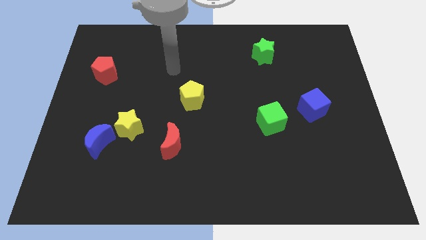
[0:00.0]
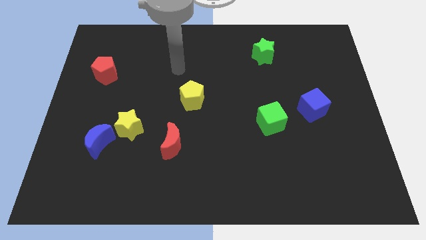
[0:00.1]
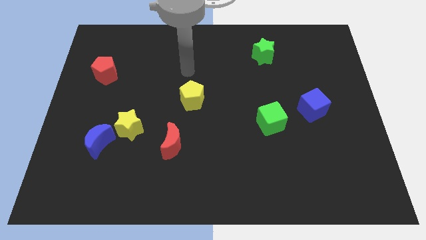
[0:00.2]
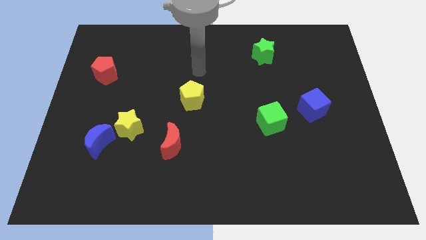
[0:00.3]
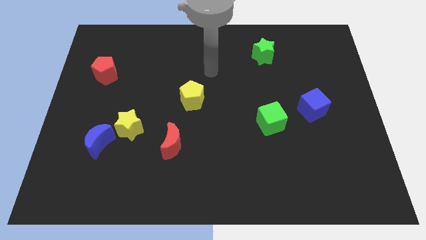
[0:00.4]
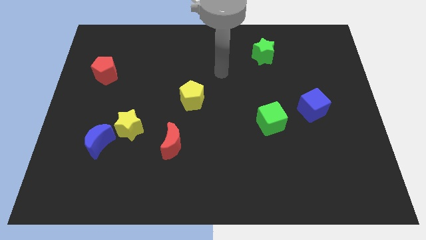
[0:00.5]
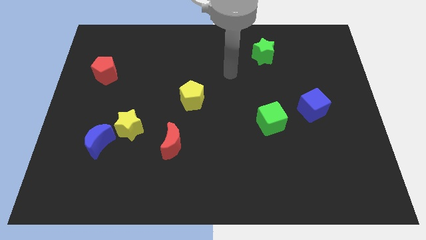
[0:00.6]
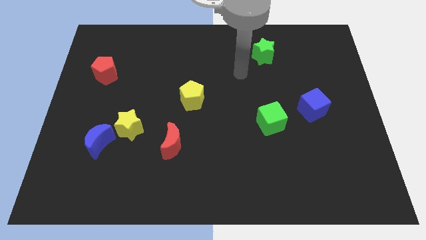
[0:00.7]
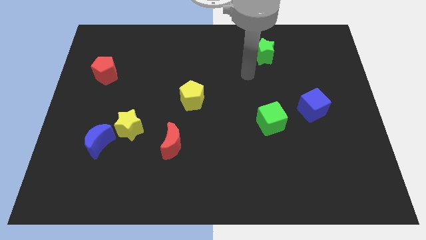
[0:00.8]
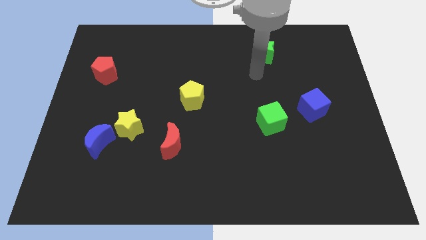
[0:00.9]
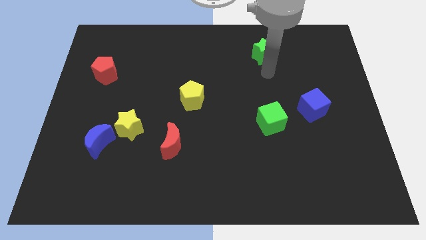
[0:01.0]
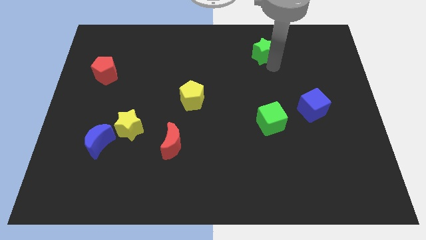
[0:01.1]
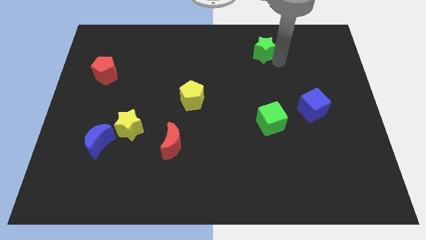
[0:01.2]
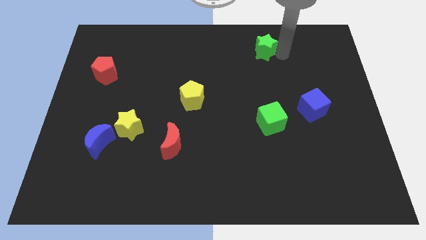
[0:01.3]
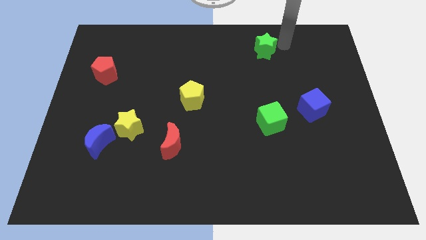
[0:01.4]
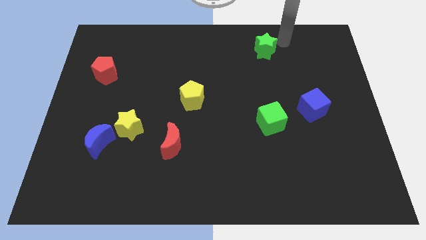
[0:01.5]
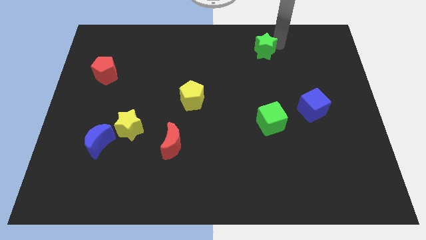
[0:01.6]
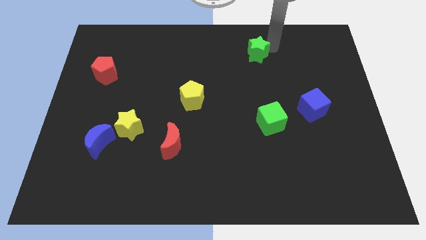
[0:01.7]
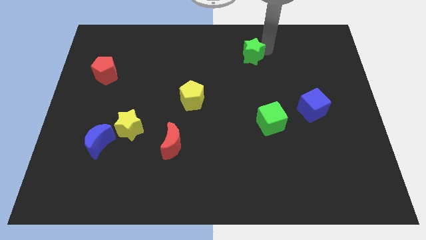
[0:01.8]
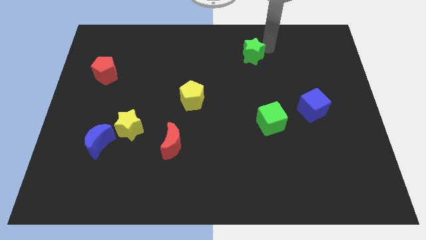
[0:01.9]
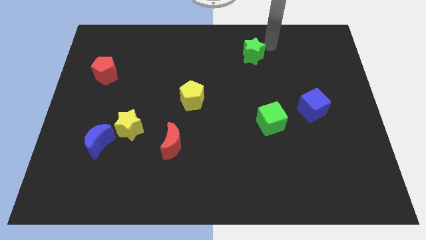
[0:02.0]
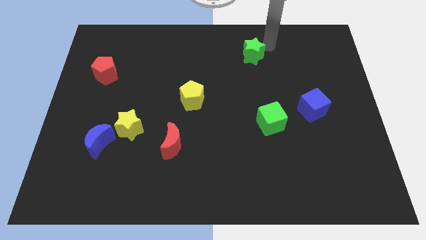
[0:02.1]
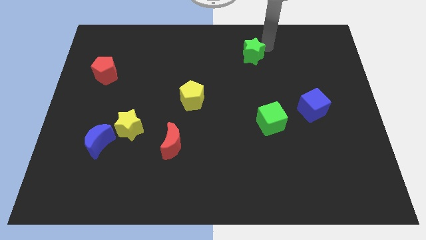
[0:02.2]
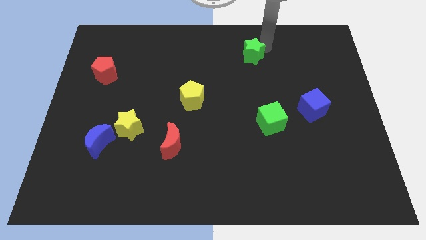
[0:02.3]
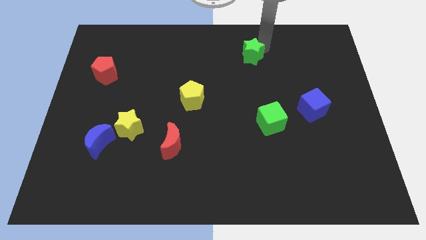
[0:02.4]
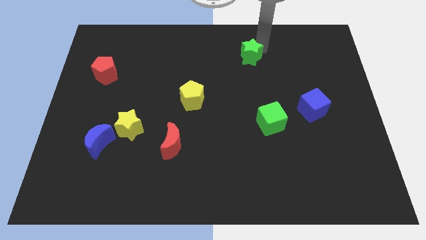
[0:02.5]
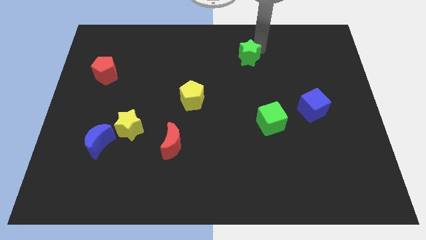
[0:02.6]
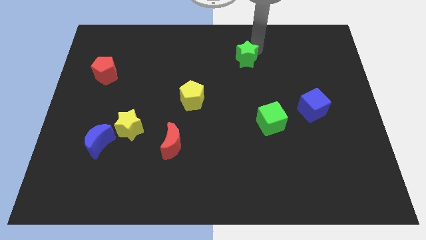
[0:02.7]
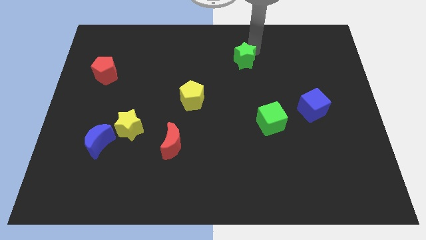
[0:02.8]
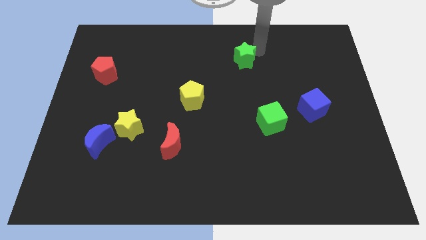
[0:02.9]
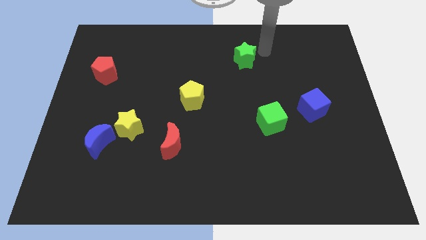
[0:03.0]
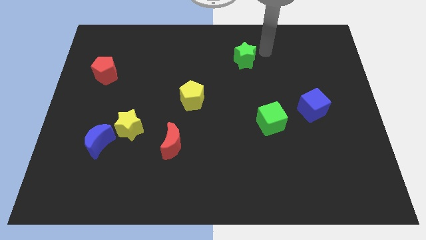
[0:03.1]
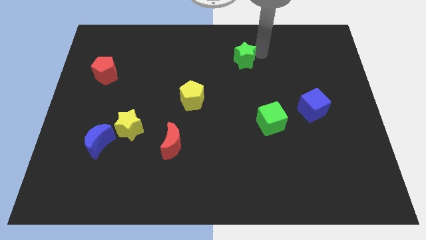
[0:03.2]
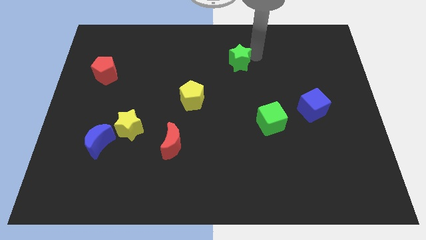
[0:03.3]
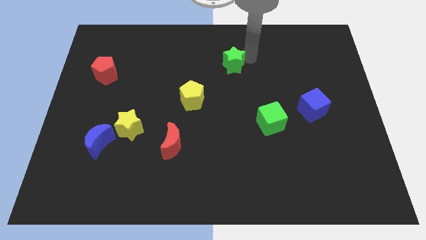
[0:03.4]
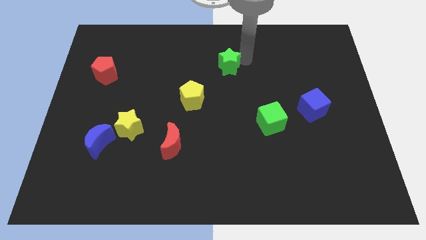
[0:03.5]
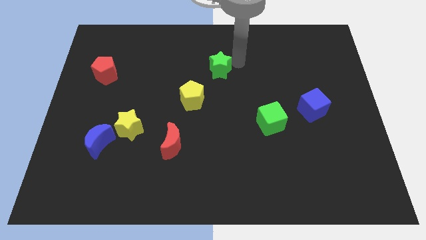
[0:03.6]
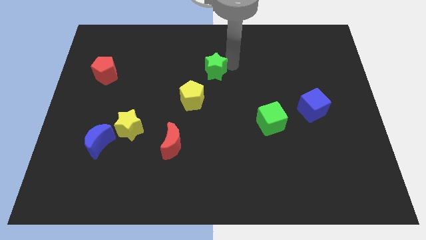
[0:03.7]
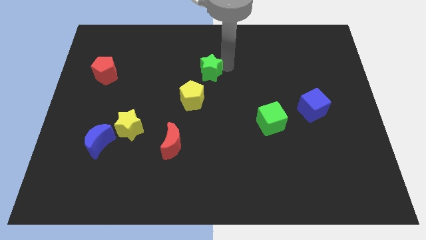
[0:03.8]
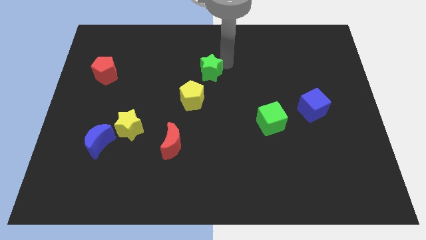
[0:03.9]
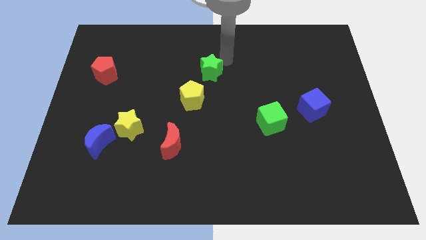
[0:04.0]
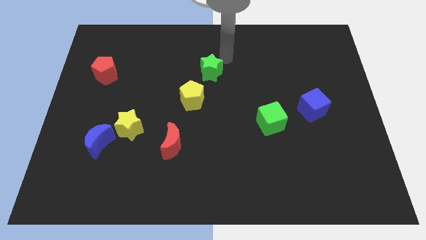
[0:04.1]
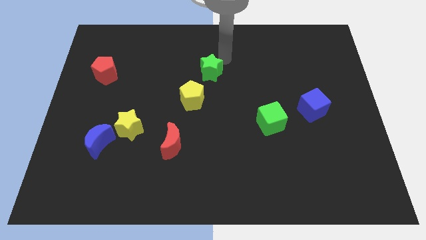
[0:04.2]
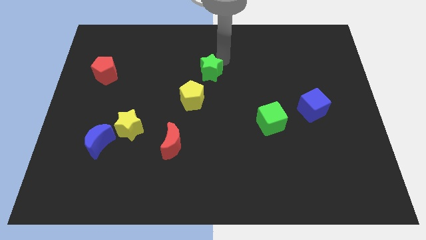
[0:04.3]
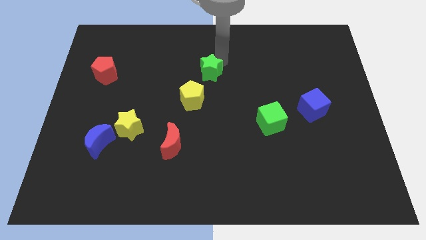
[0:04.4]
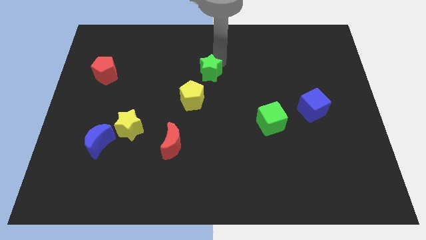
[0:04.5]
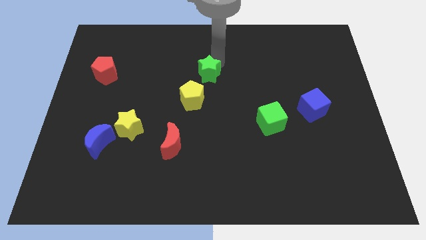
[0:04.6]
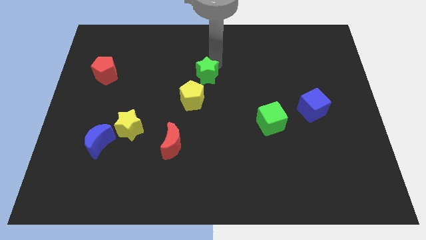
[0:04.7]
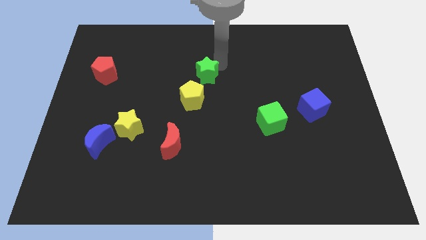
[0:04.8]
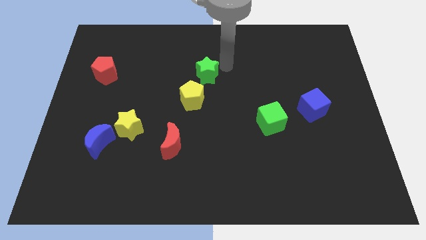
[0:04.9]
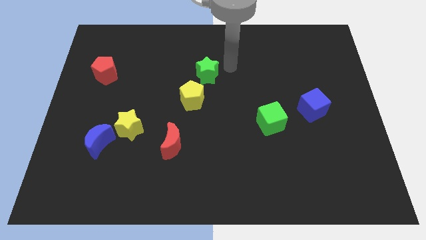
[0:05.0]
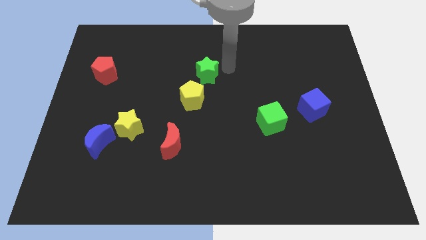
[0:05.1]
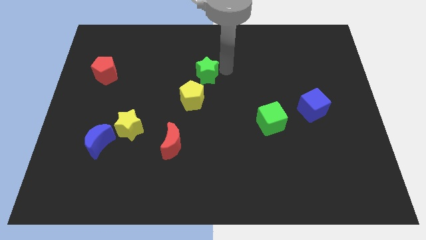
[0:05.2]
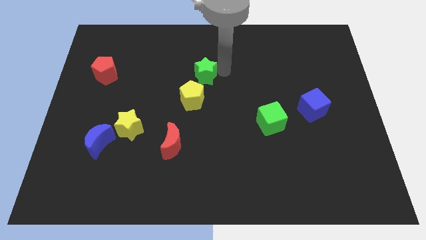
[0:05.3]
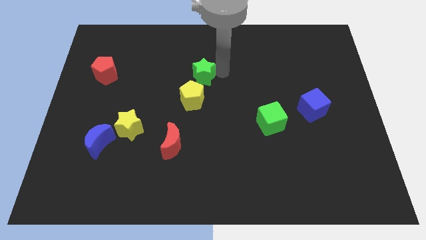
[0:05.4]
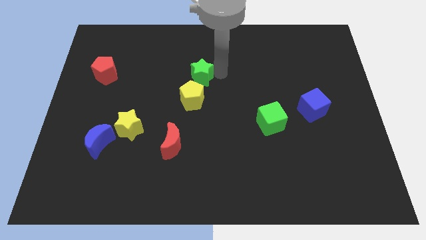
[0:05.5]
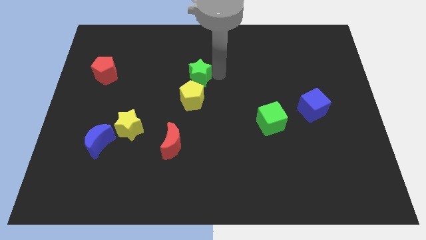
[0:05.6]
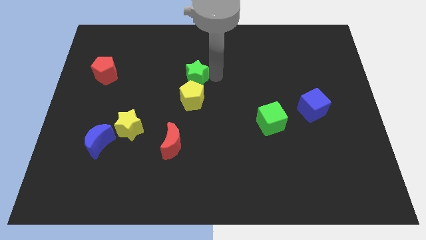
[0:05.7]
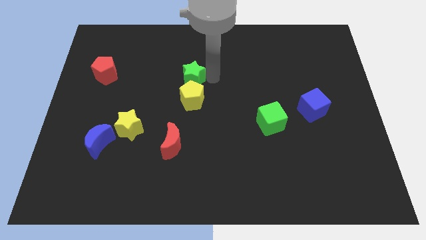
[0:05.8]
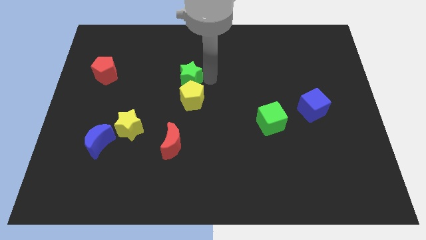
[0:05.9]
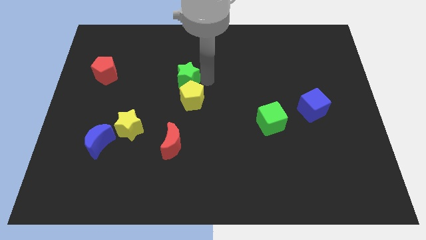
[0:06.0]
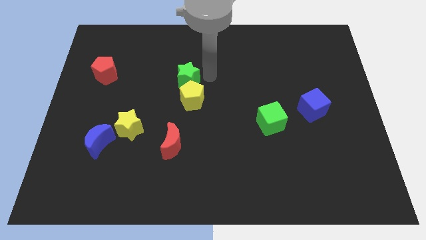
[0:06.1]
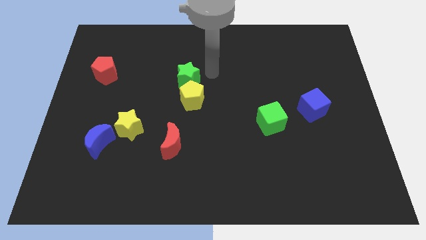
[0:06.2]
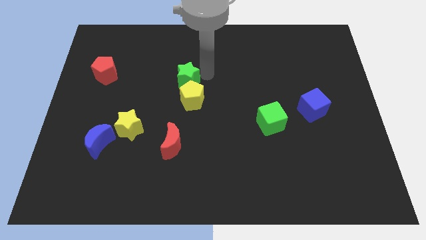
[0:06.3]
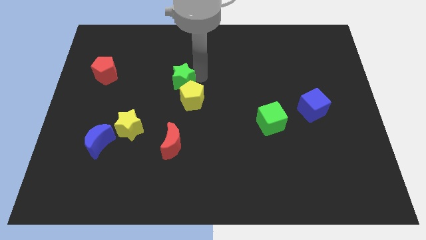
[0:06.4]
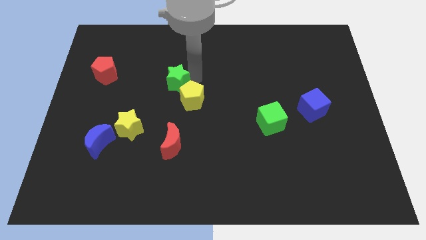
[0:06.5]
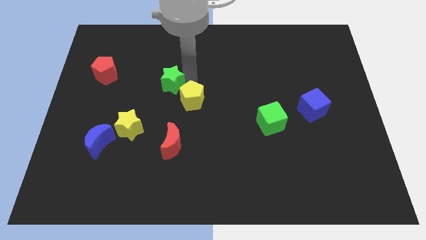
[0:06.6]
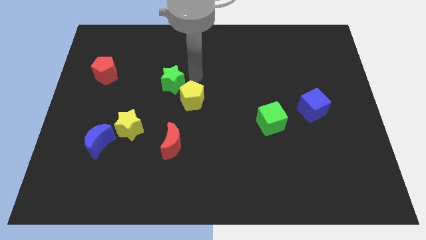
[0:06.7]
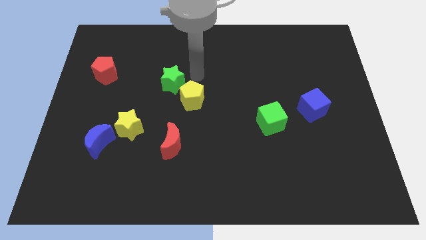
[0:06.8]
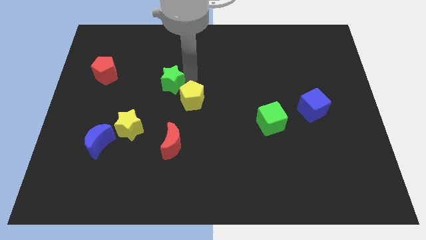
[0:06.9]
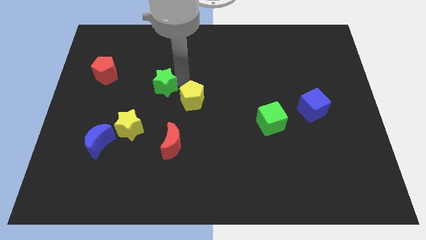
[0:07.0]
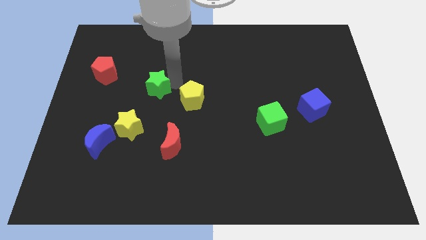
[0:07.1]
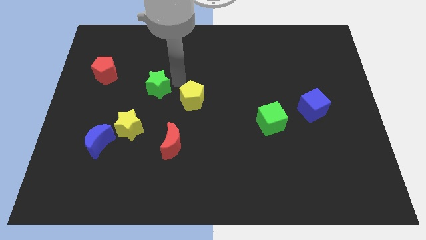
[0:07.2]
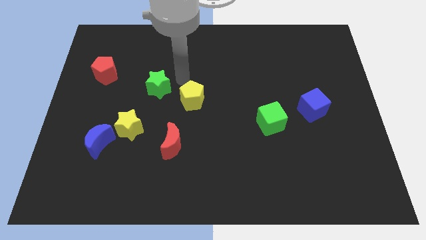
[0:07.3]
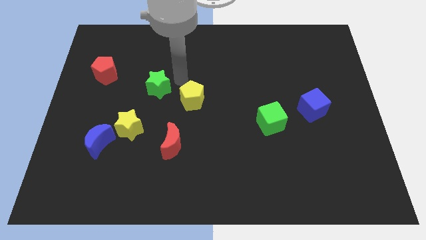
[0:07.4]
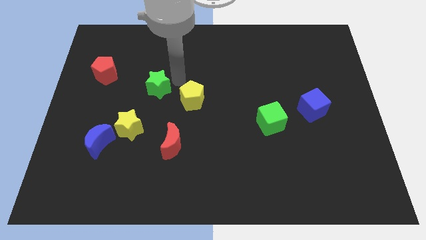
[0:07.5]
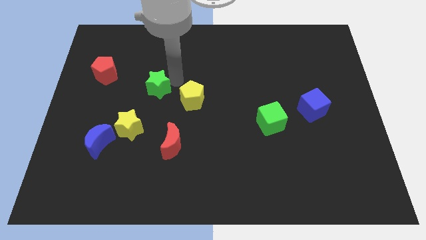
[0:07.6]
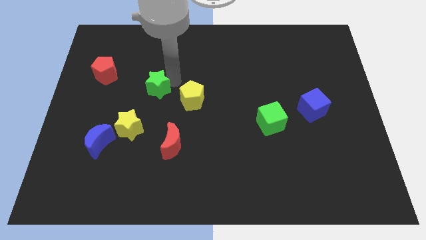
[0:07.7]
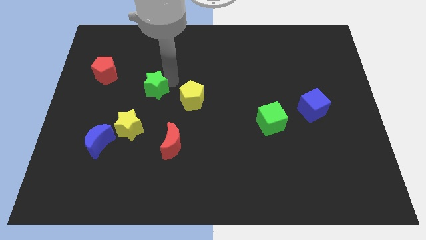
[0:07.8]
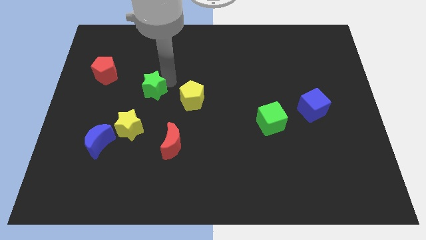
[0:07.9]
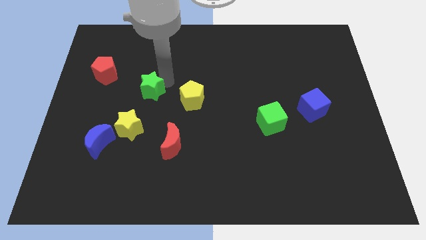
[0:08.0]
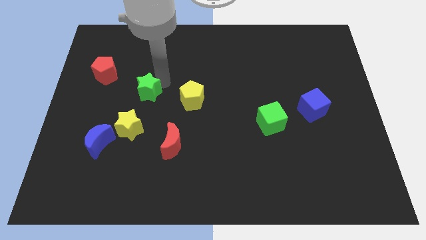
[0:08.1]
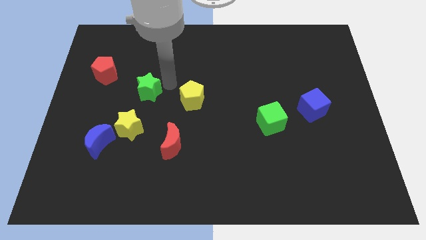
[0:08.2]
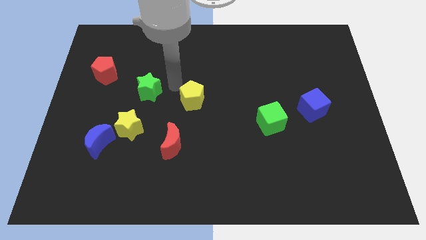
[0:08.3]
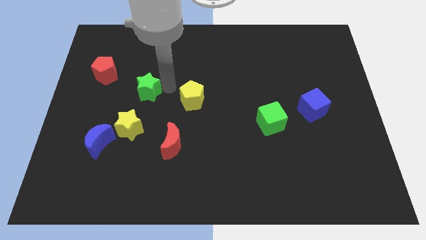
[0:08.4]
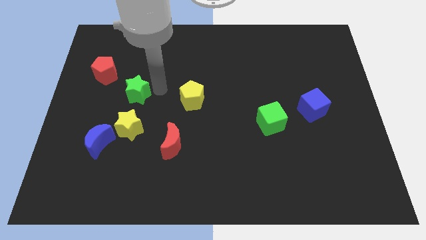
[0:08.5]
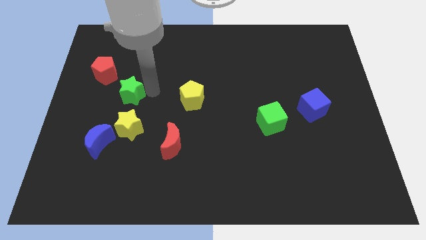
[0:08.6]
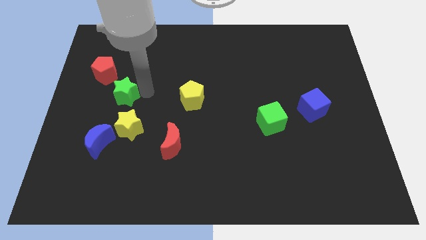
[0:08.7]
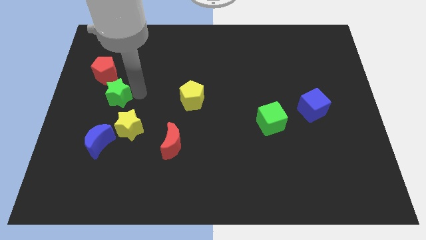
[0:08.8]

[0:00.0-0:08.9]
push the green star to the bottom side of the red pentagon
